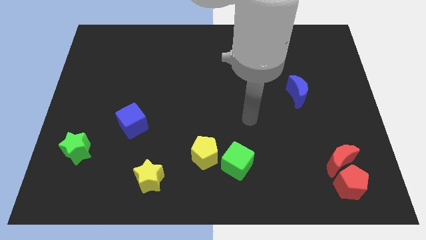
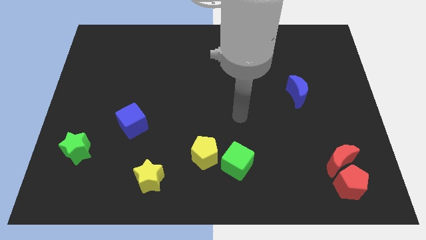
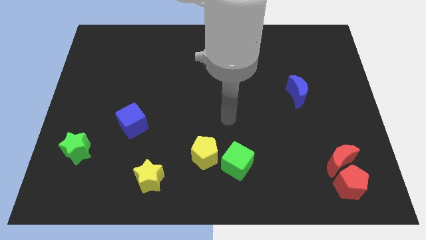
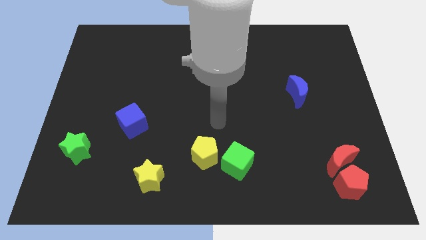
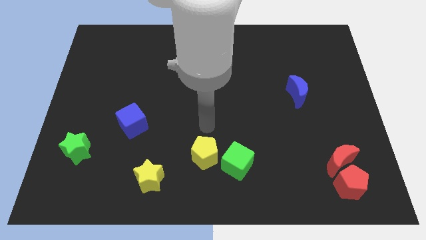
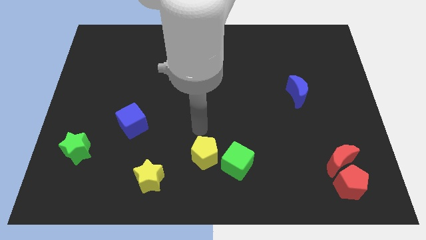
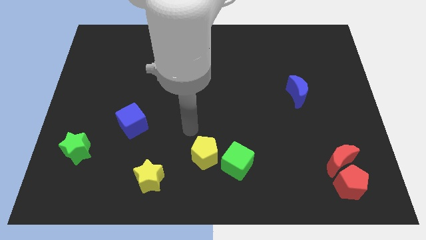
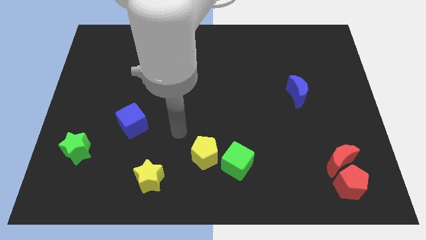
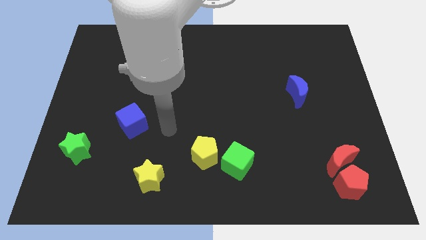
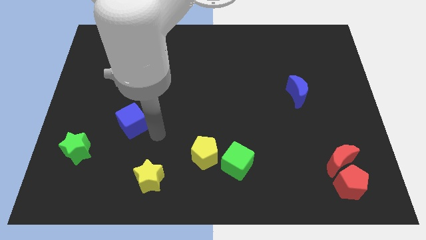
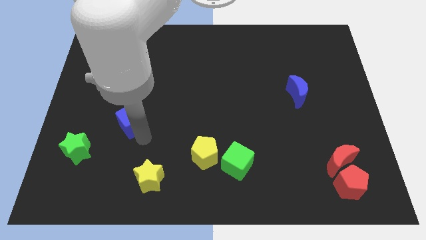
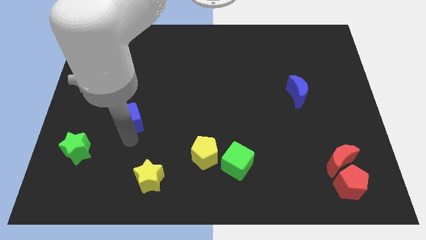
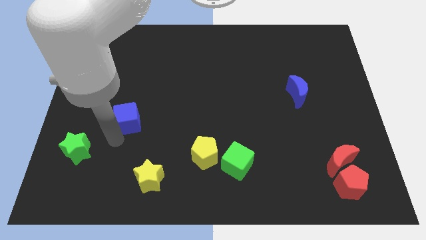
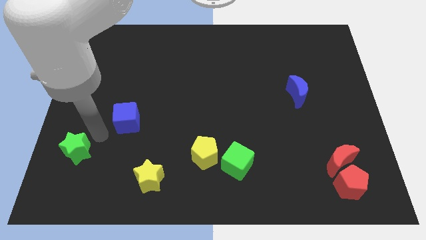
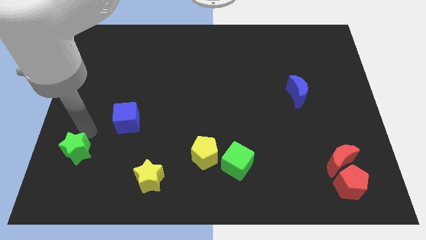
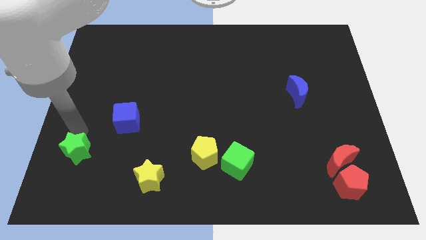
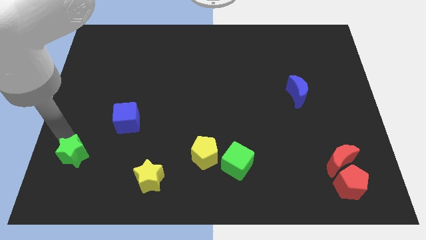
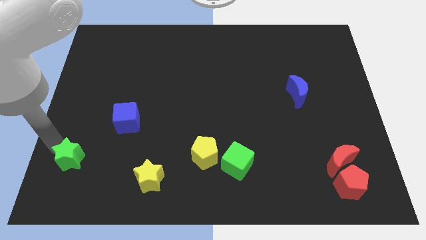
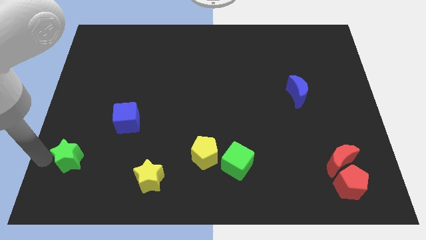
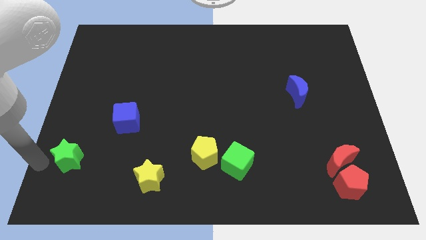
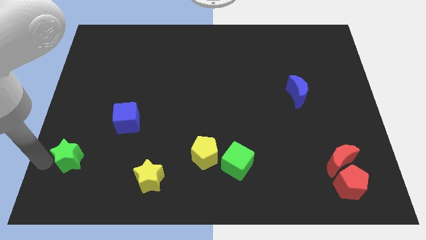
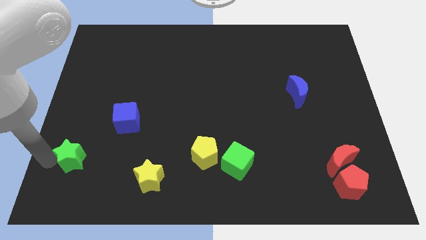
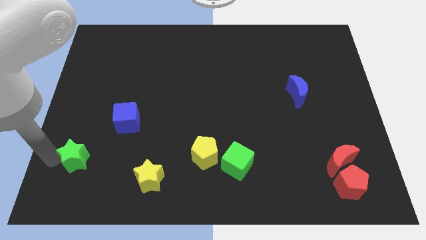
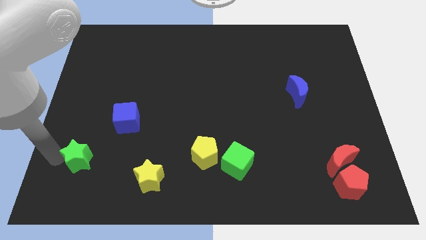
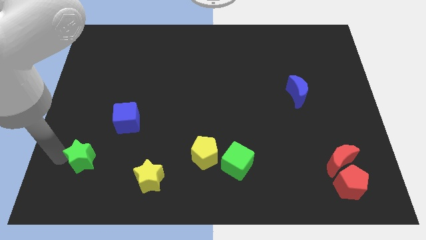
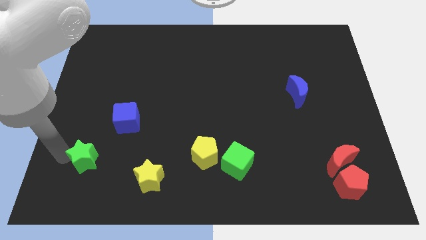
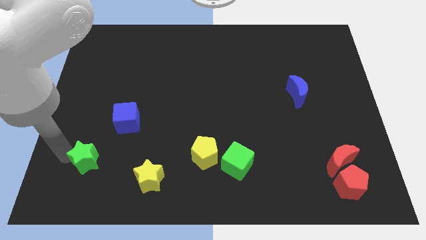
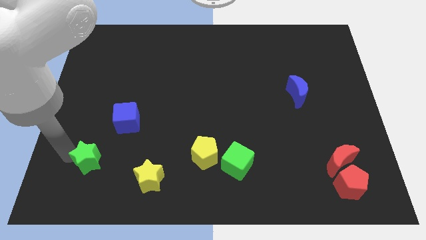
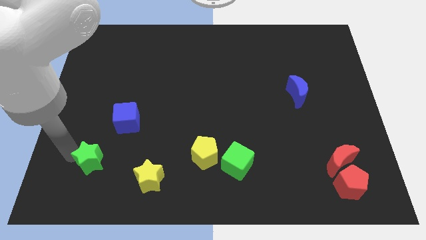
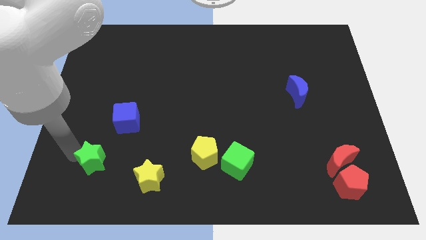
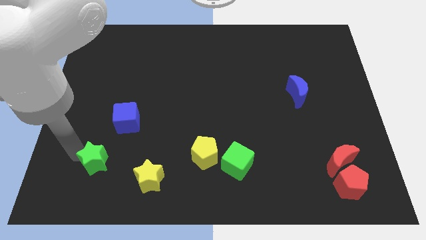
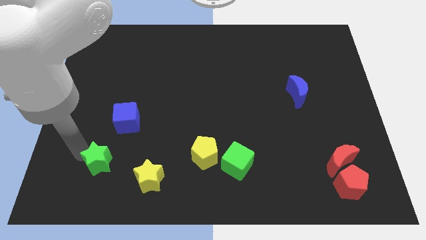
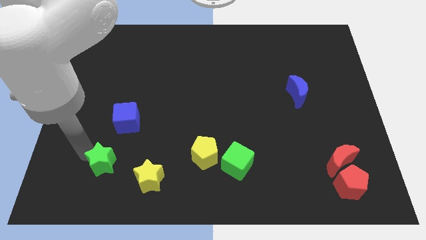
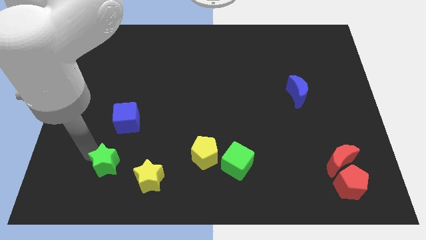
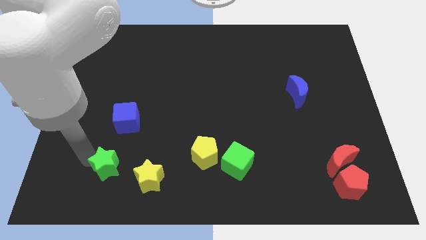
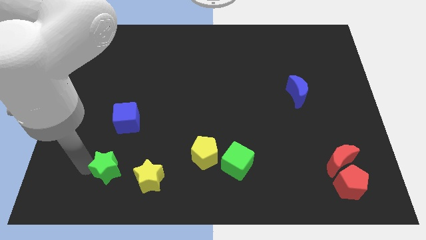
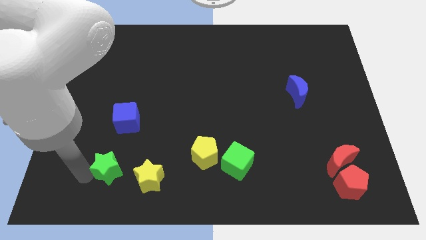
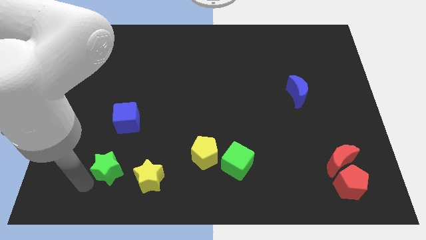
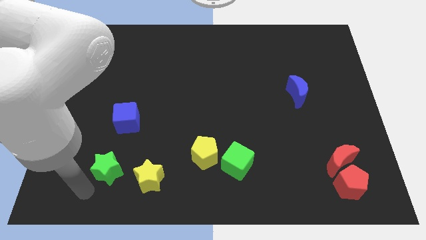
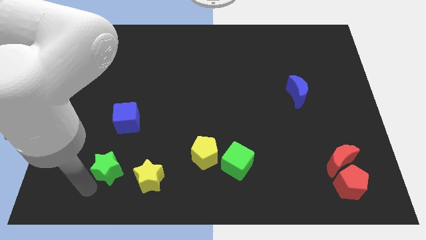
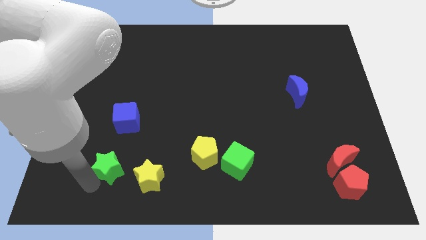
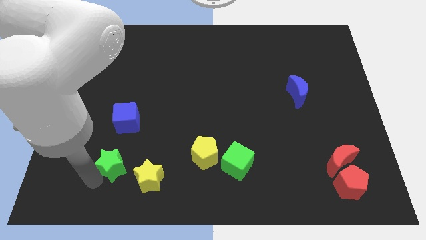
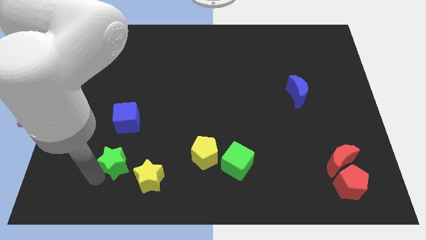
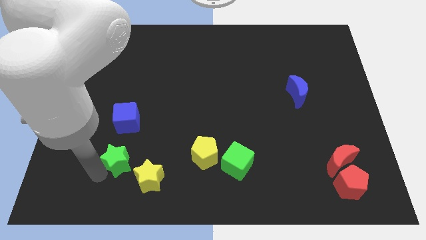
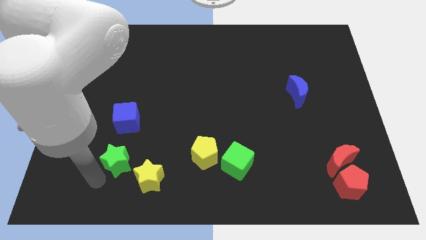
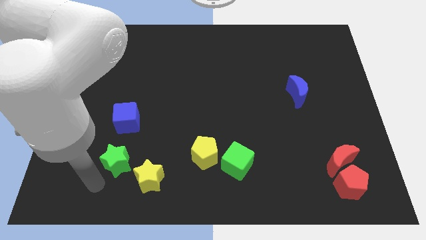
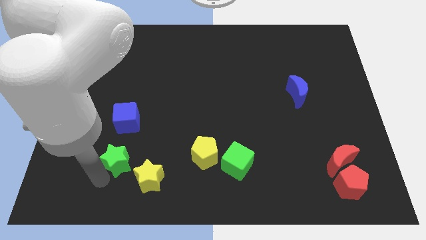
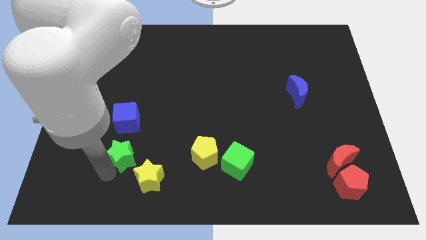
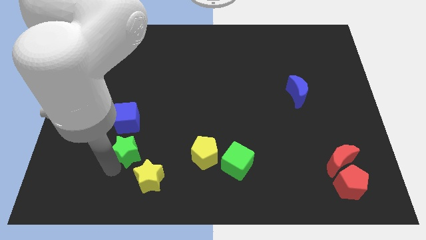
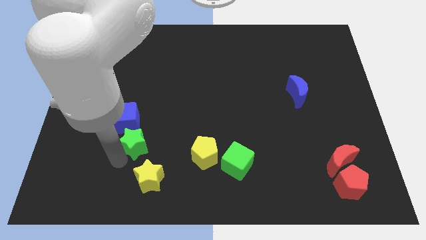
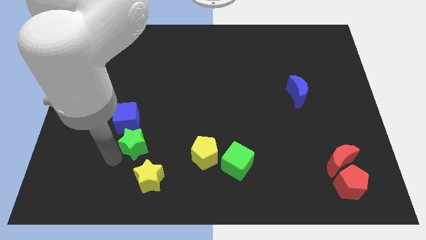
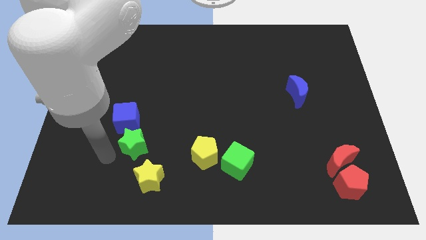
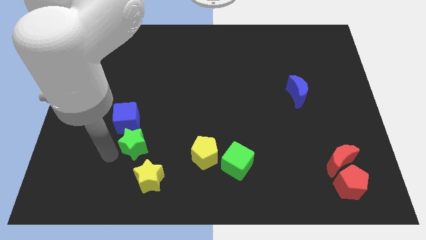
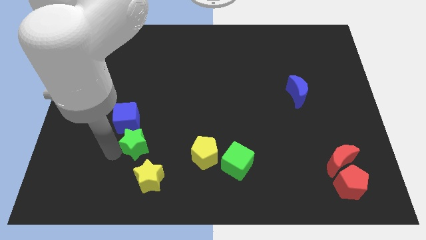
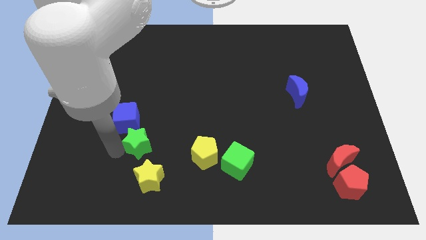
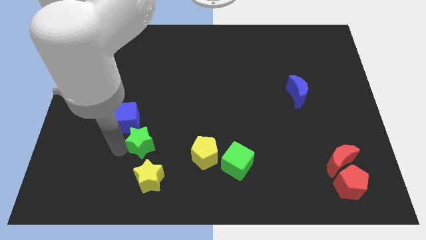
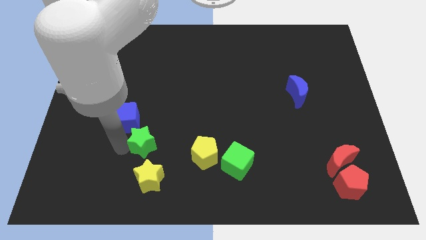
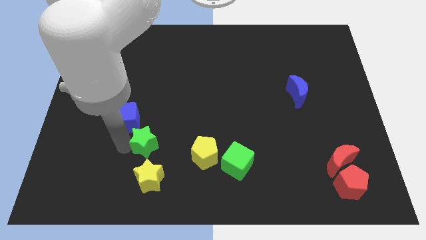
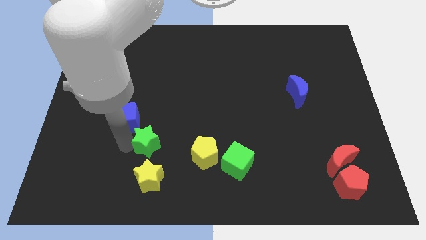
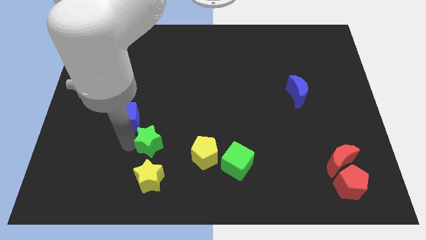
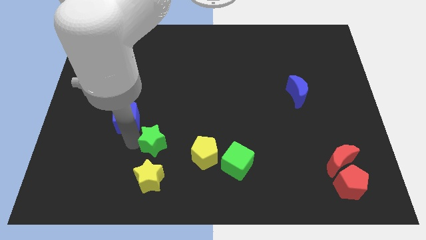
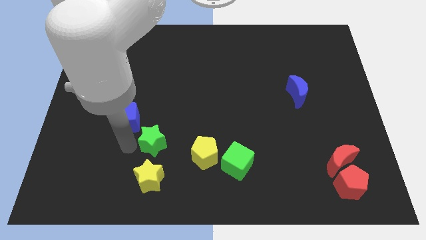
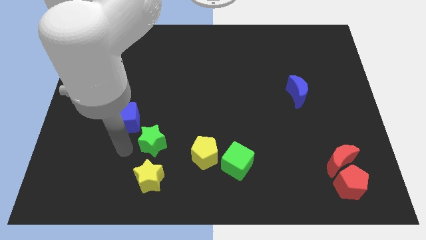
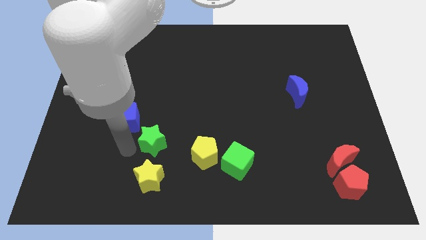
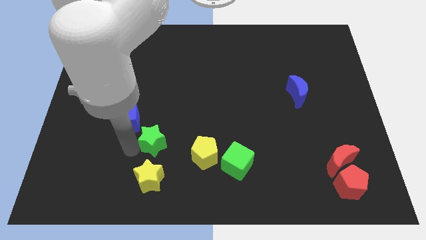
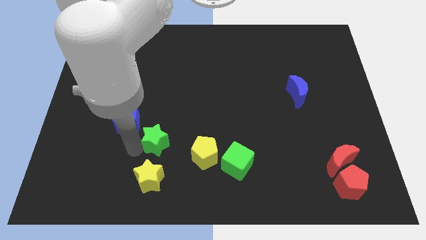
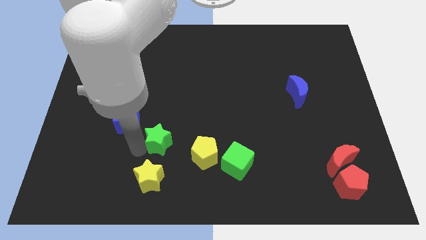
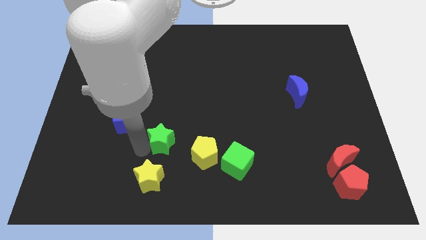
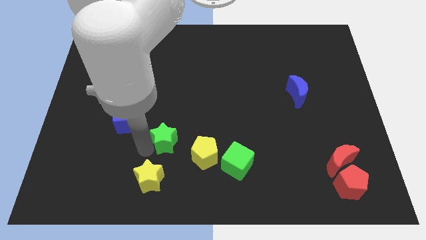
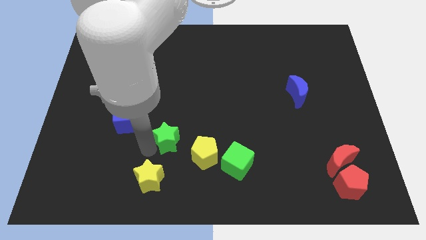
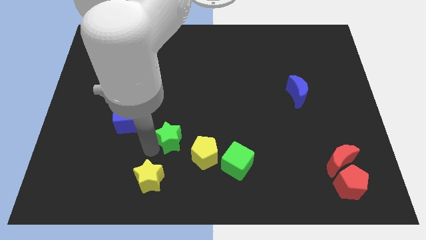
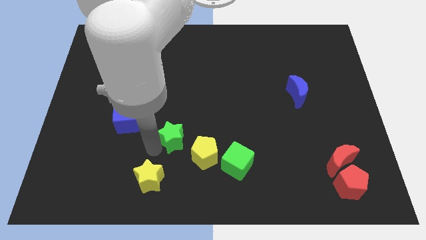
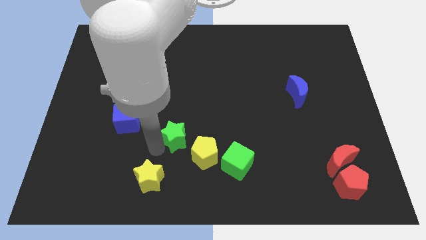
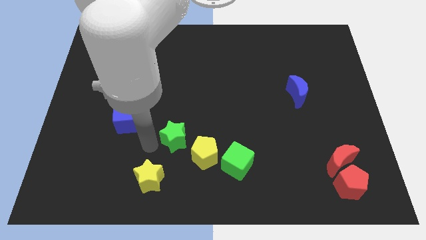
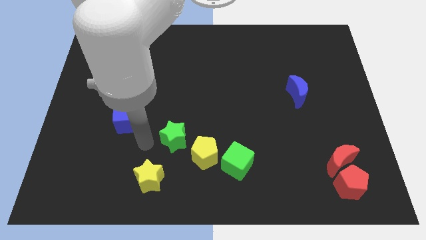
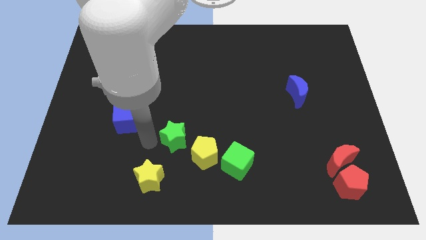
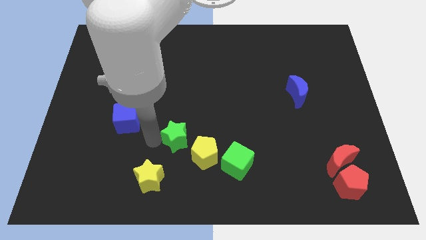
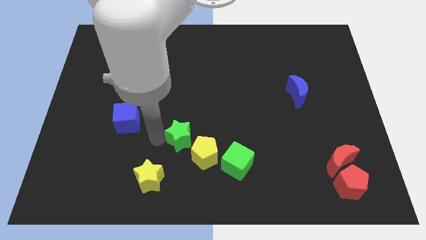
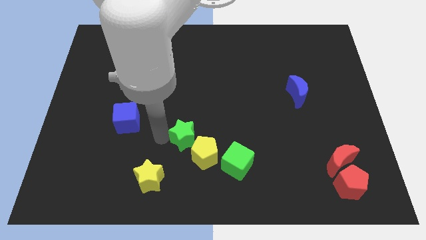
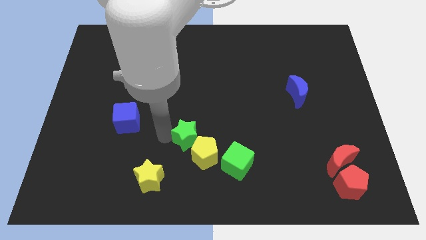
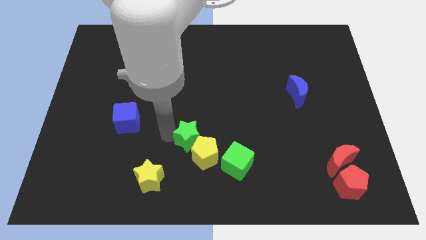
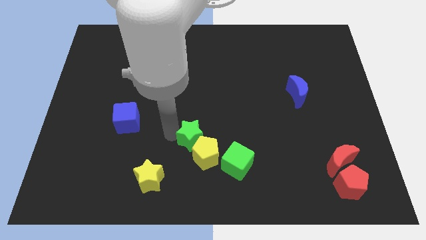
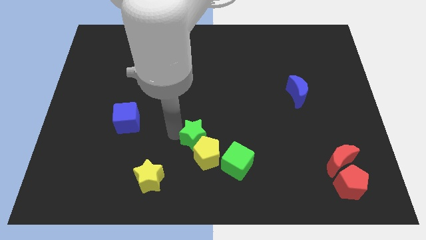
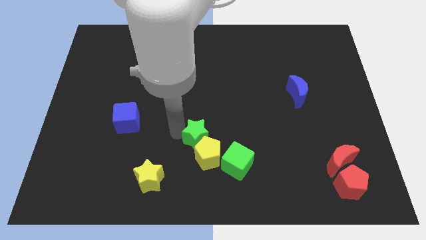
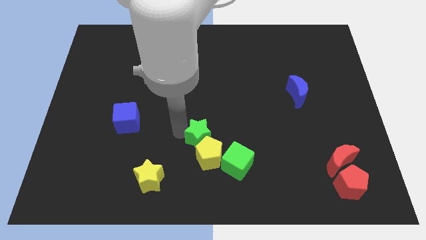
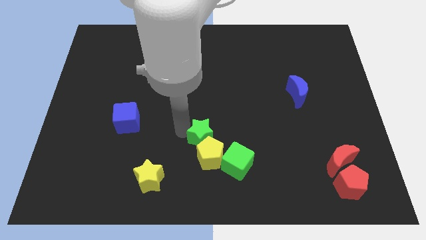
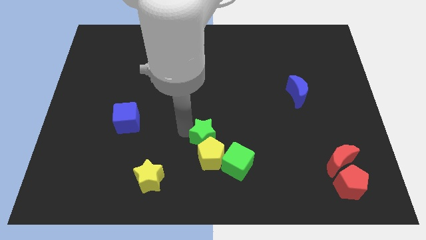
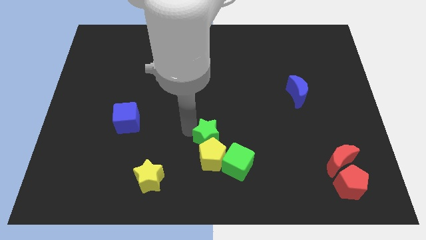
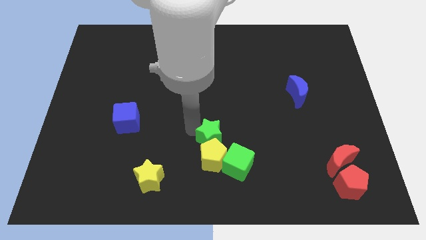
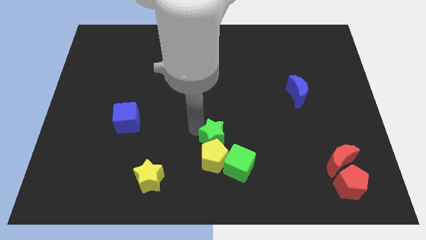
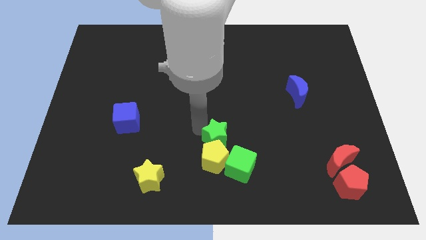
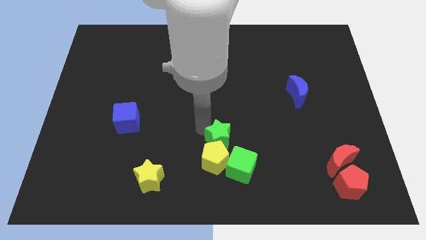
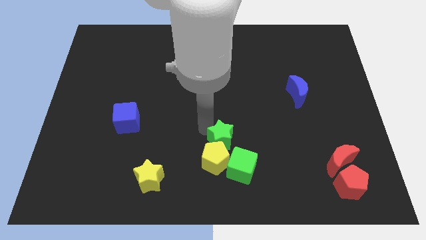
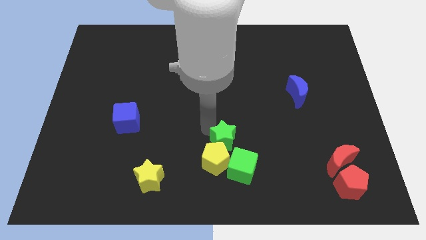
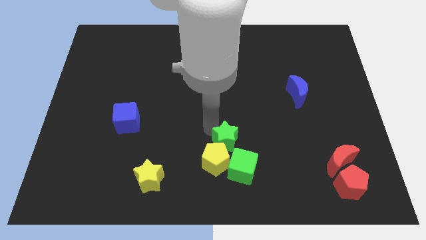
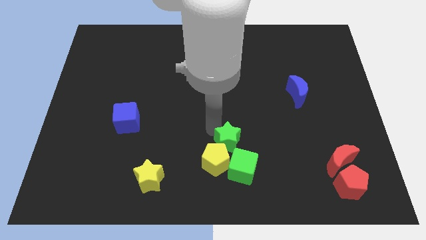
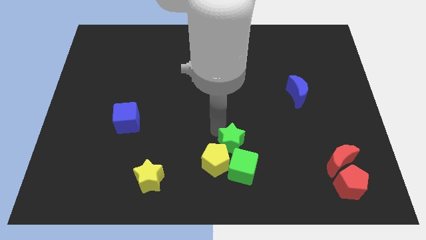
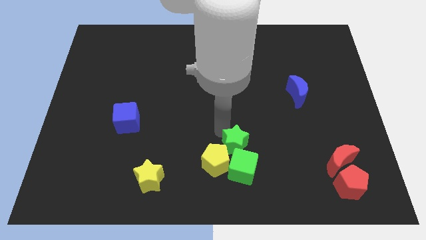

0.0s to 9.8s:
put the green star to the right side of the yellow pentagon
